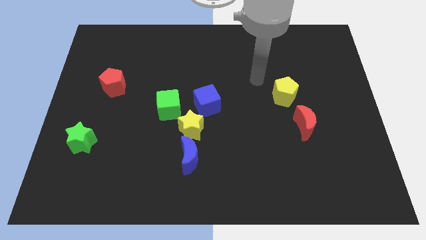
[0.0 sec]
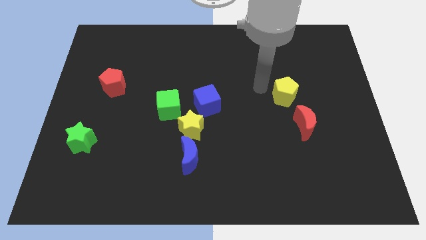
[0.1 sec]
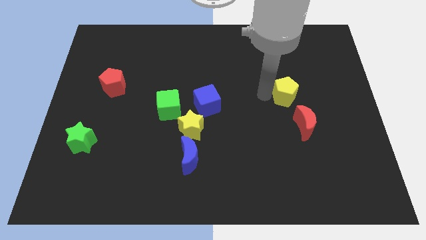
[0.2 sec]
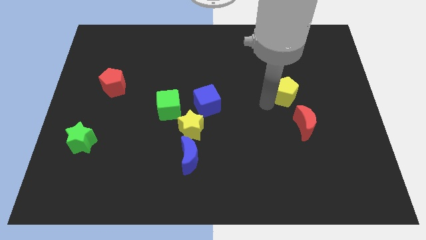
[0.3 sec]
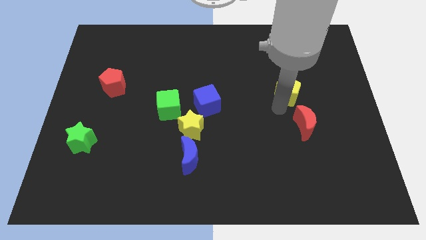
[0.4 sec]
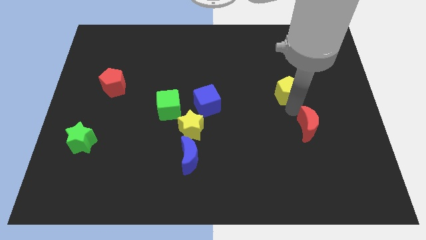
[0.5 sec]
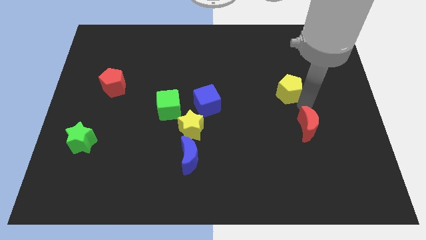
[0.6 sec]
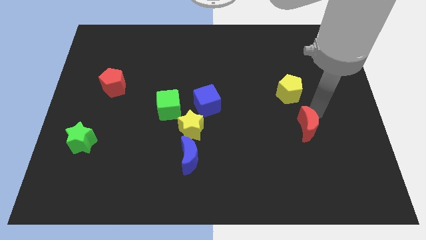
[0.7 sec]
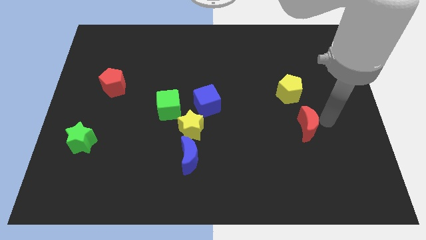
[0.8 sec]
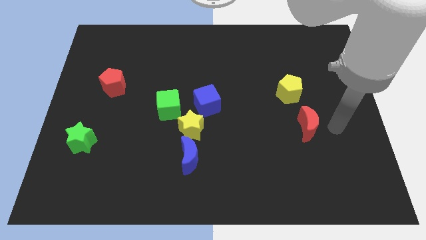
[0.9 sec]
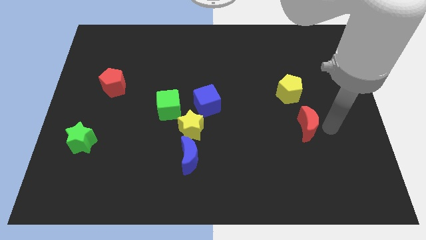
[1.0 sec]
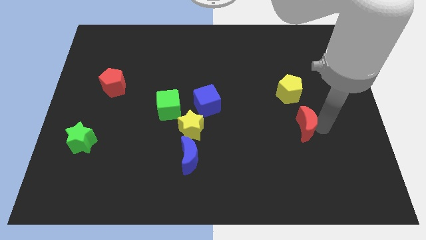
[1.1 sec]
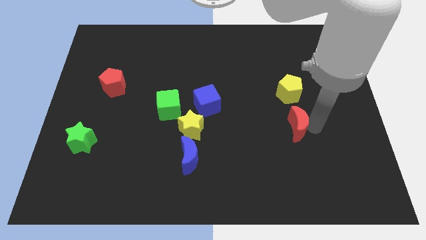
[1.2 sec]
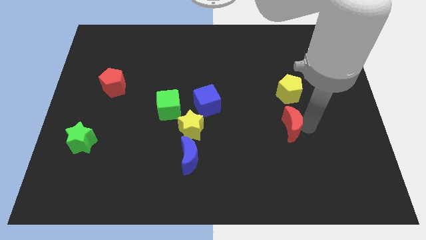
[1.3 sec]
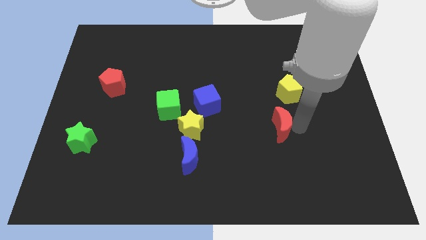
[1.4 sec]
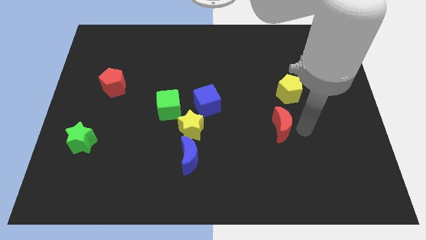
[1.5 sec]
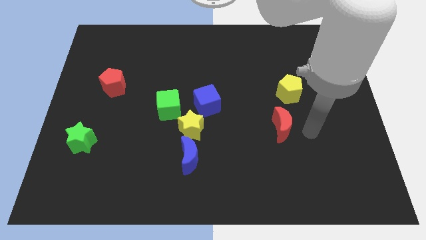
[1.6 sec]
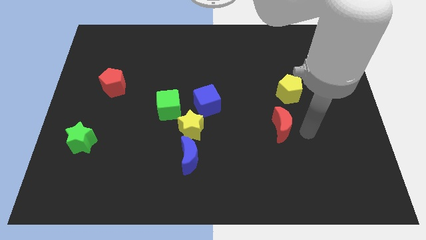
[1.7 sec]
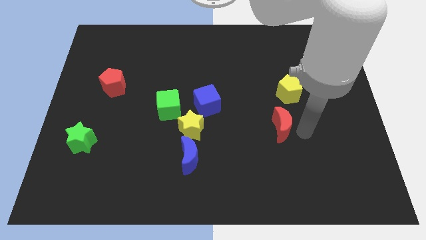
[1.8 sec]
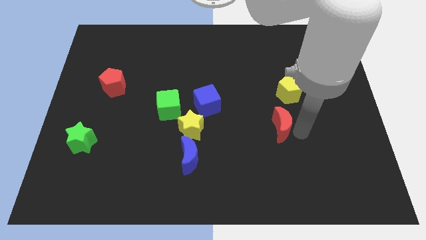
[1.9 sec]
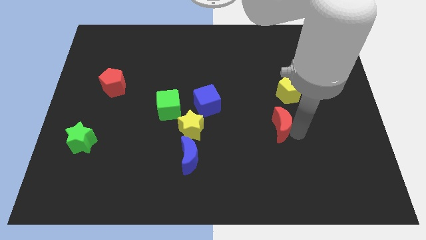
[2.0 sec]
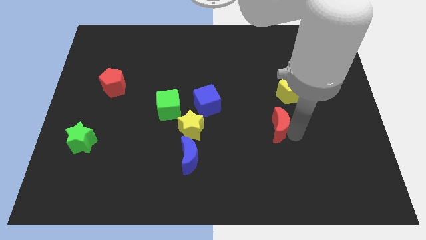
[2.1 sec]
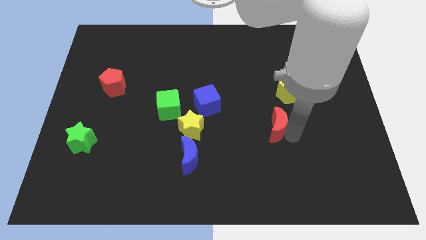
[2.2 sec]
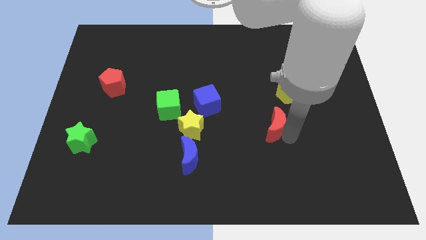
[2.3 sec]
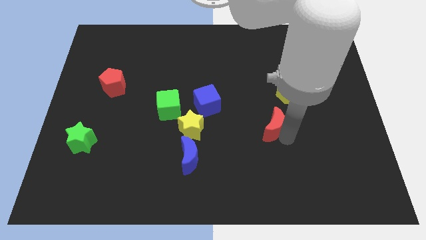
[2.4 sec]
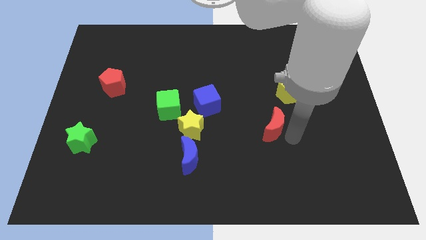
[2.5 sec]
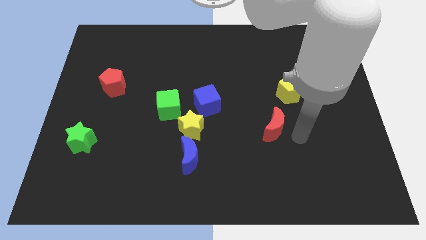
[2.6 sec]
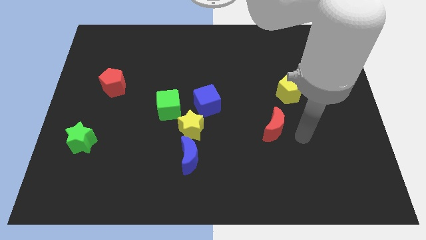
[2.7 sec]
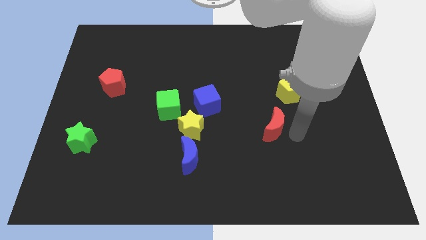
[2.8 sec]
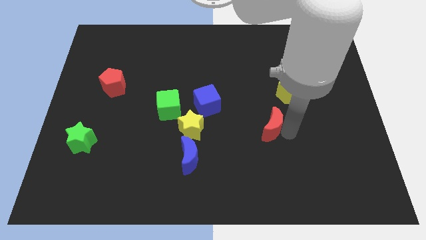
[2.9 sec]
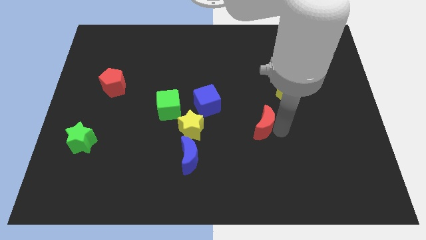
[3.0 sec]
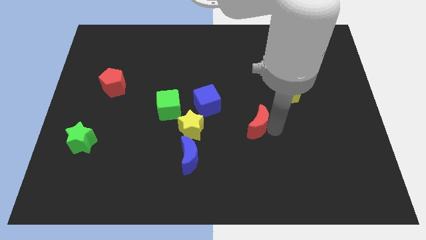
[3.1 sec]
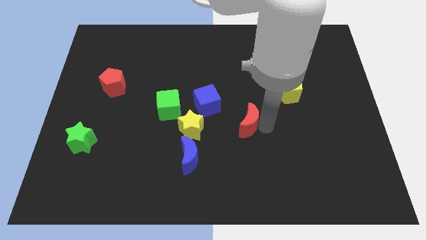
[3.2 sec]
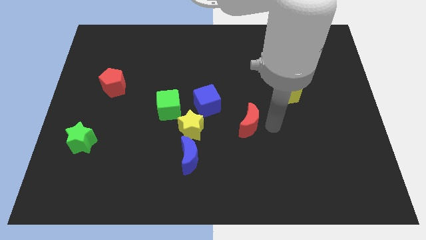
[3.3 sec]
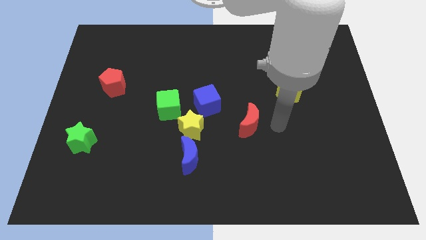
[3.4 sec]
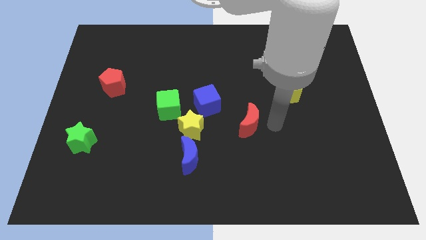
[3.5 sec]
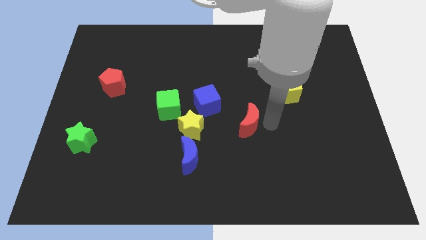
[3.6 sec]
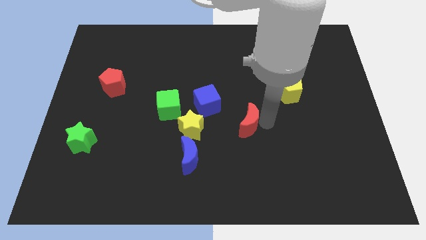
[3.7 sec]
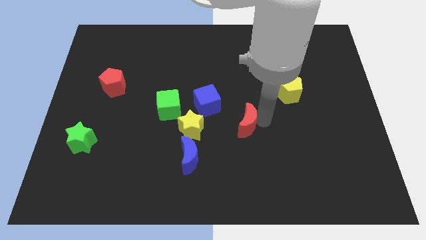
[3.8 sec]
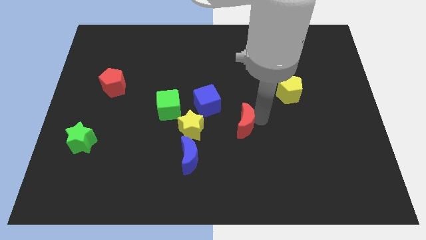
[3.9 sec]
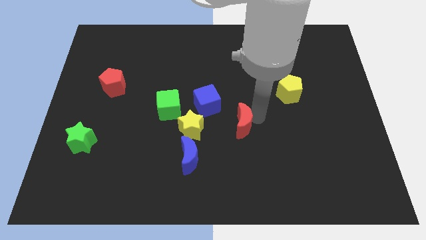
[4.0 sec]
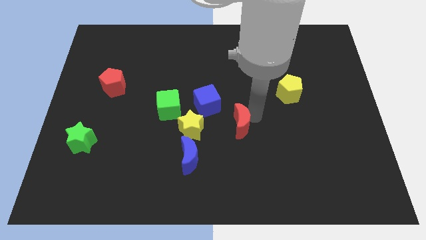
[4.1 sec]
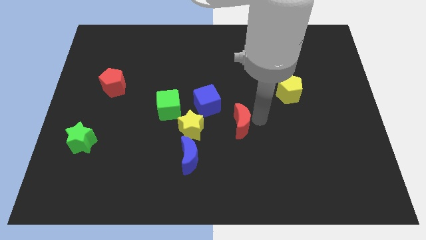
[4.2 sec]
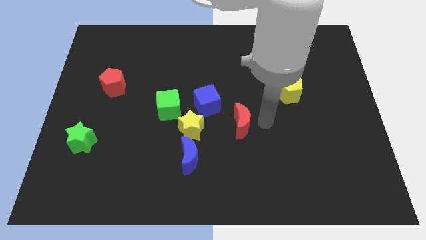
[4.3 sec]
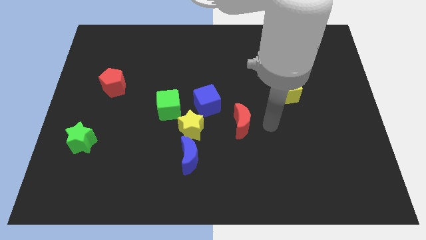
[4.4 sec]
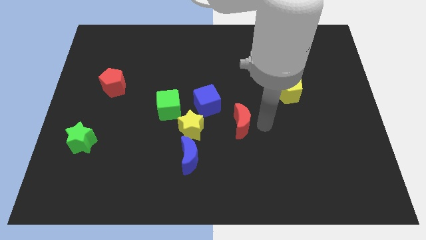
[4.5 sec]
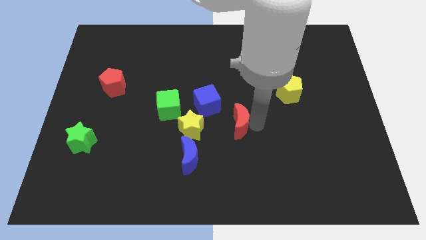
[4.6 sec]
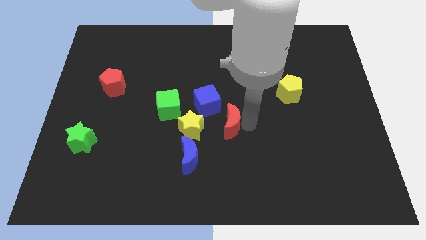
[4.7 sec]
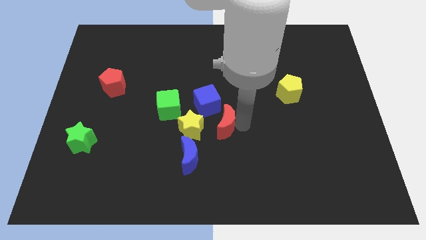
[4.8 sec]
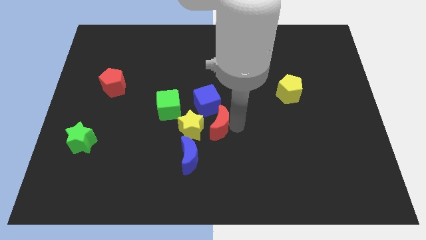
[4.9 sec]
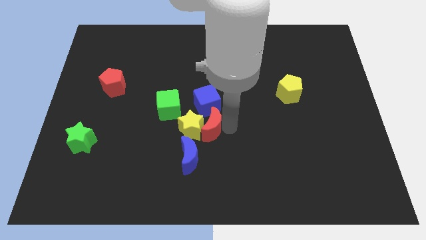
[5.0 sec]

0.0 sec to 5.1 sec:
push the red moon to the top of the blue moon

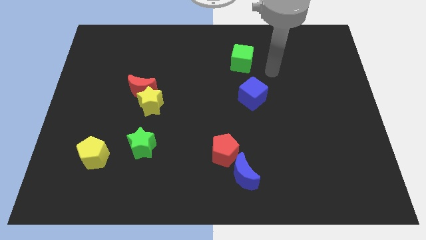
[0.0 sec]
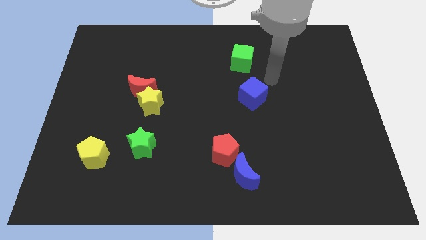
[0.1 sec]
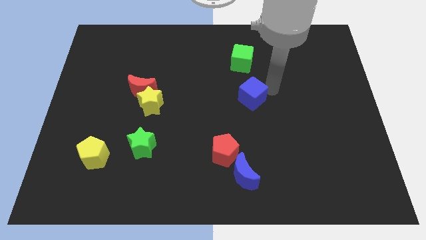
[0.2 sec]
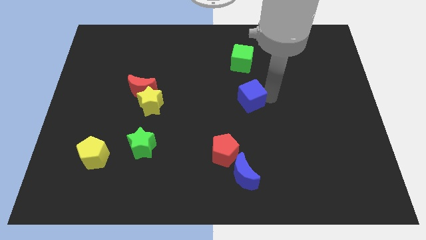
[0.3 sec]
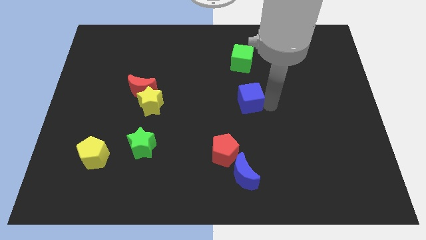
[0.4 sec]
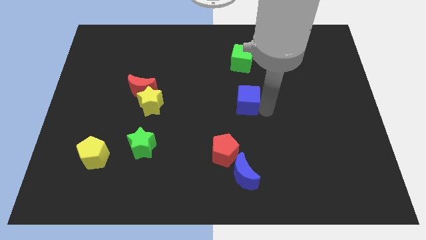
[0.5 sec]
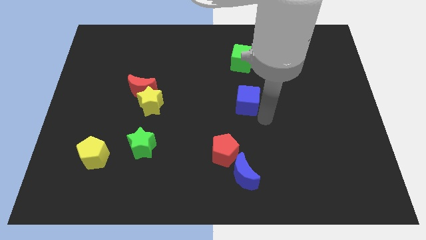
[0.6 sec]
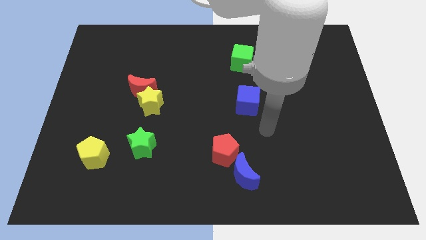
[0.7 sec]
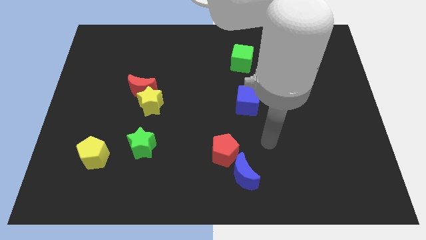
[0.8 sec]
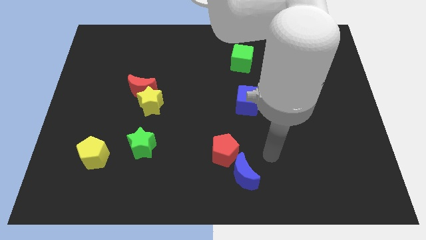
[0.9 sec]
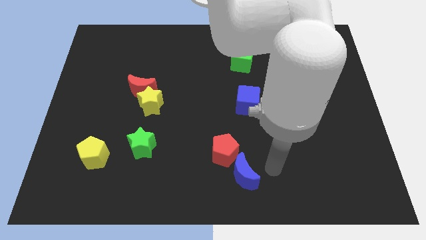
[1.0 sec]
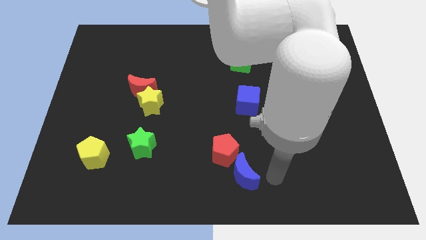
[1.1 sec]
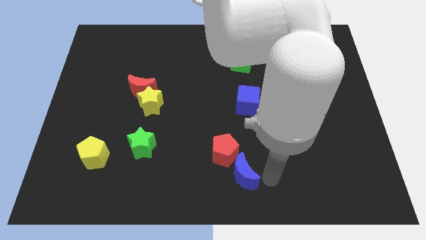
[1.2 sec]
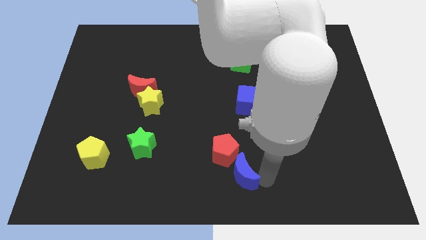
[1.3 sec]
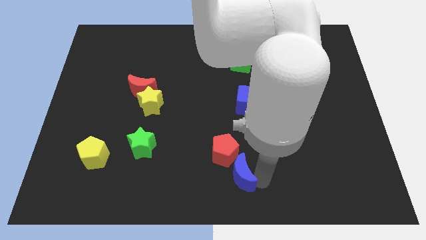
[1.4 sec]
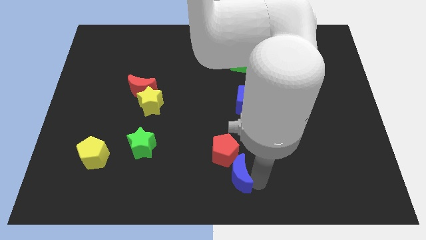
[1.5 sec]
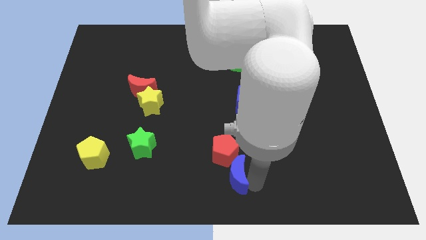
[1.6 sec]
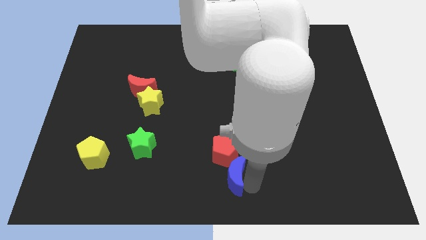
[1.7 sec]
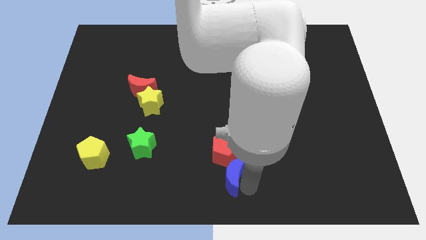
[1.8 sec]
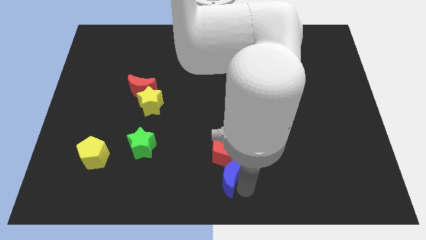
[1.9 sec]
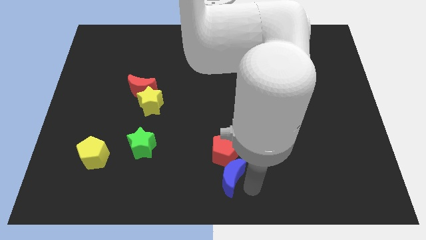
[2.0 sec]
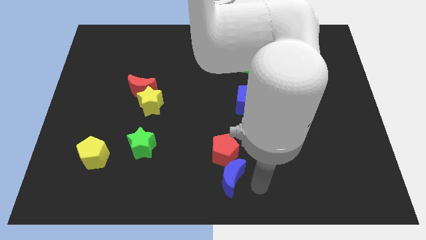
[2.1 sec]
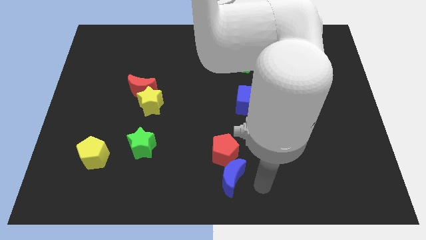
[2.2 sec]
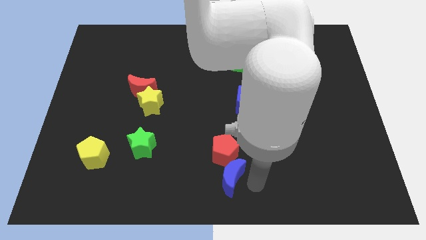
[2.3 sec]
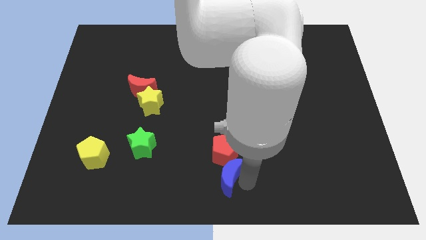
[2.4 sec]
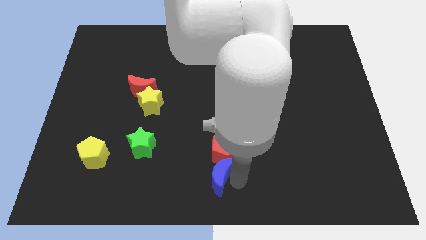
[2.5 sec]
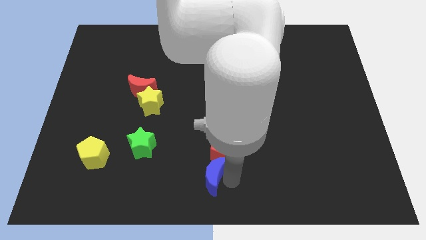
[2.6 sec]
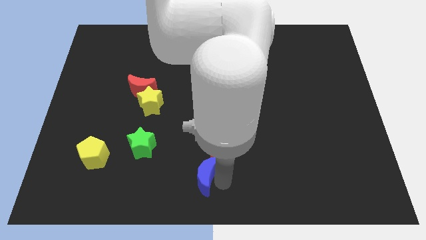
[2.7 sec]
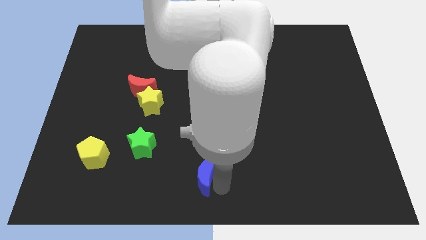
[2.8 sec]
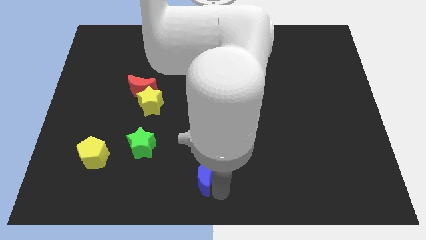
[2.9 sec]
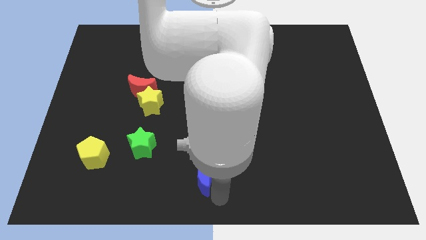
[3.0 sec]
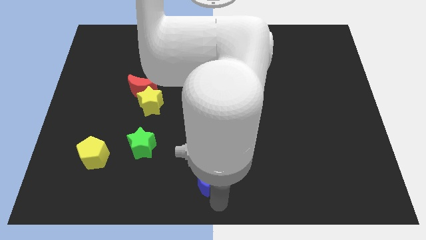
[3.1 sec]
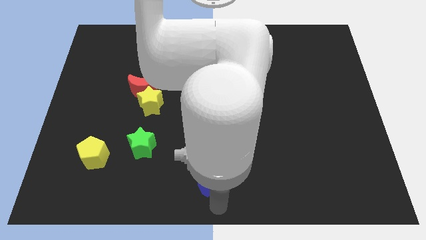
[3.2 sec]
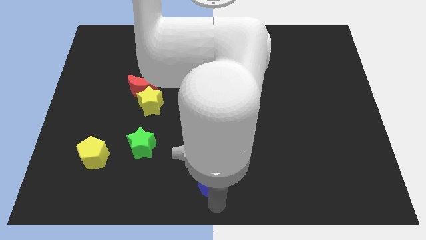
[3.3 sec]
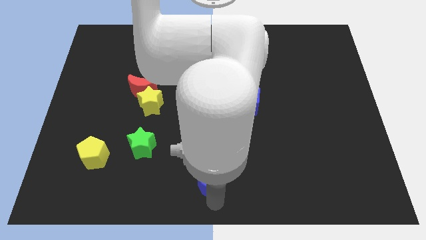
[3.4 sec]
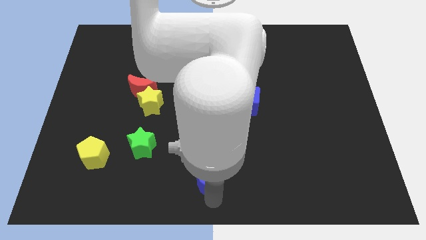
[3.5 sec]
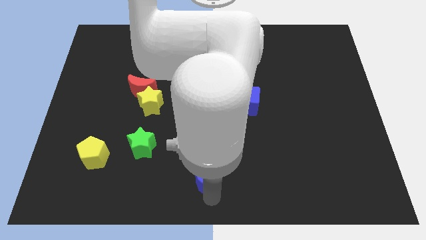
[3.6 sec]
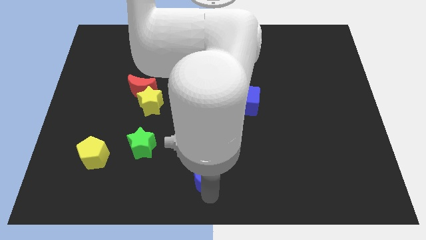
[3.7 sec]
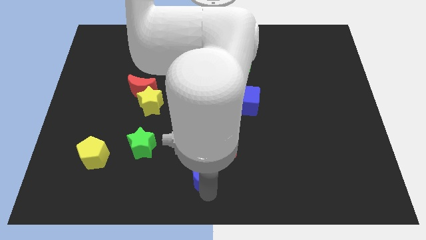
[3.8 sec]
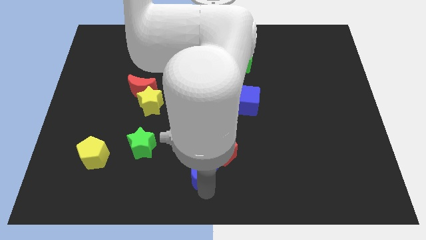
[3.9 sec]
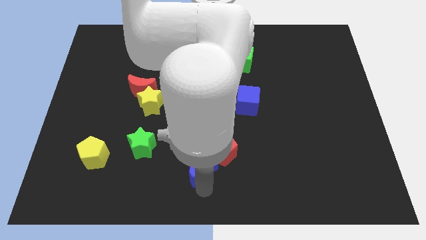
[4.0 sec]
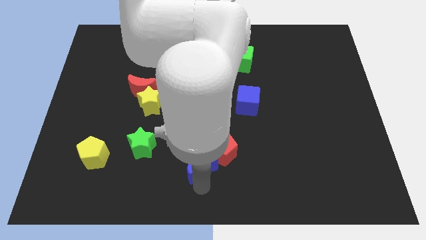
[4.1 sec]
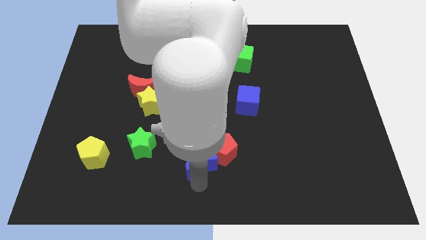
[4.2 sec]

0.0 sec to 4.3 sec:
push the blue moon right of the green star
